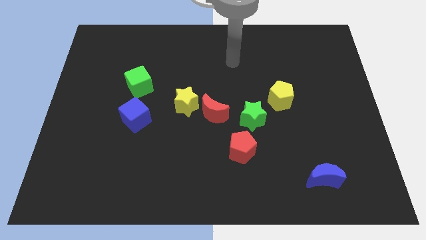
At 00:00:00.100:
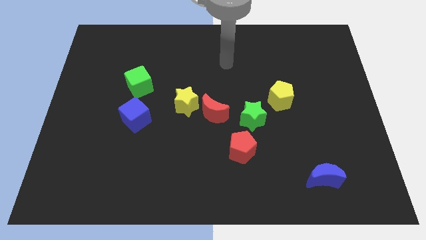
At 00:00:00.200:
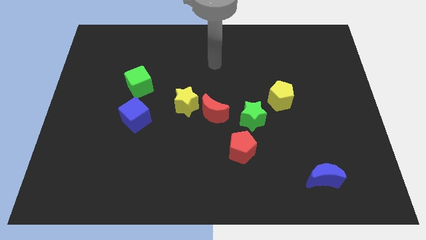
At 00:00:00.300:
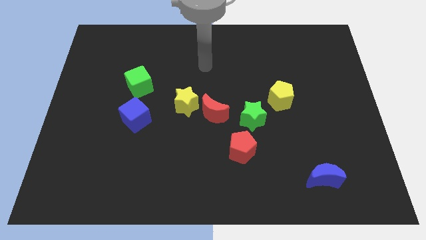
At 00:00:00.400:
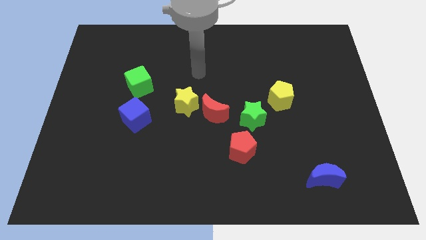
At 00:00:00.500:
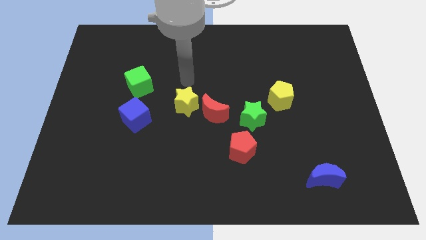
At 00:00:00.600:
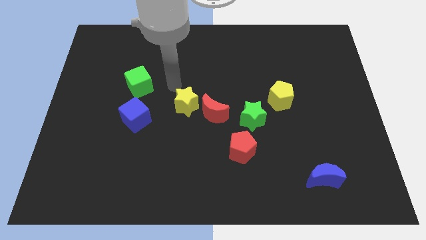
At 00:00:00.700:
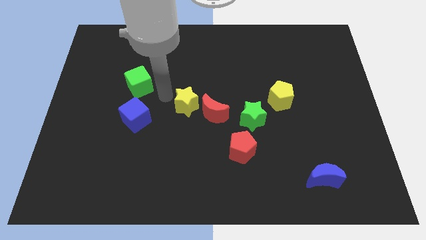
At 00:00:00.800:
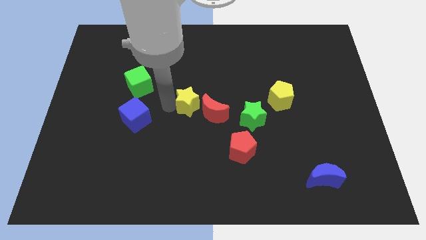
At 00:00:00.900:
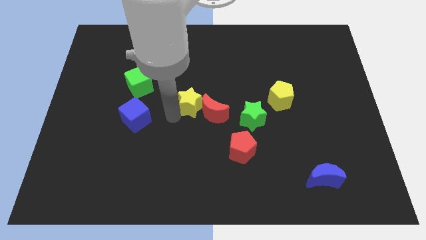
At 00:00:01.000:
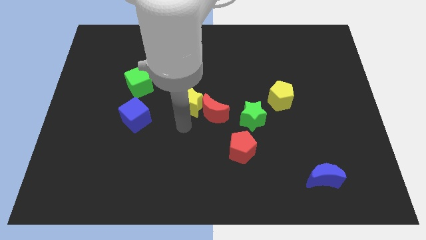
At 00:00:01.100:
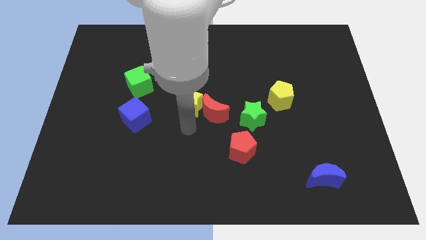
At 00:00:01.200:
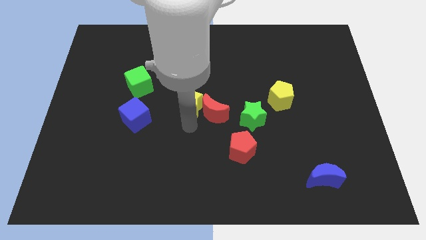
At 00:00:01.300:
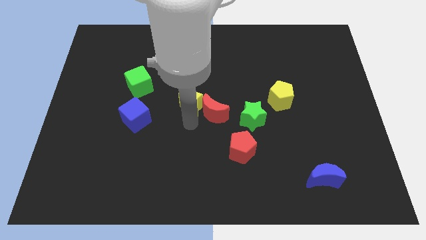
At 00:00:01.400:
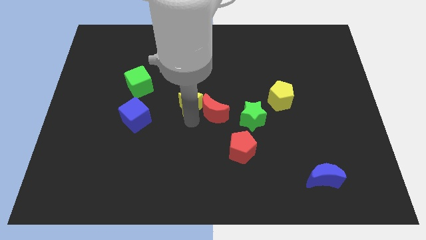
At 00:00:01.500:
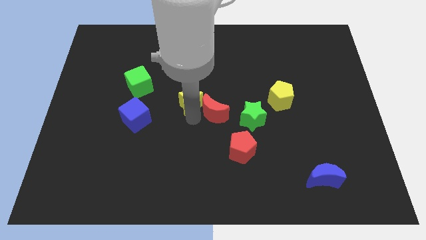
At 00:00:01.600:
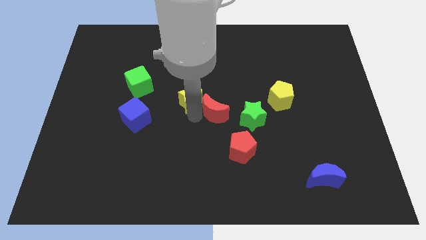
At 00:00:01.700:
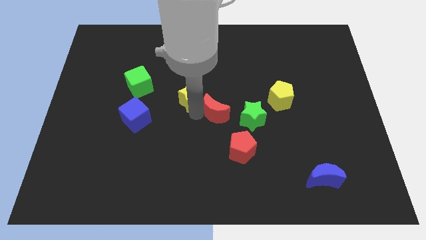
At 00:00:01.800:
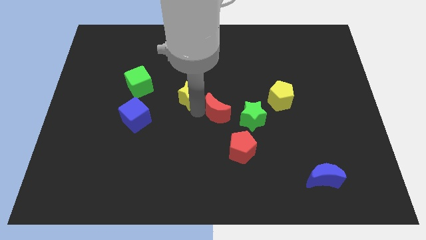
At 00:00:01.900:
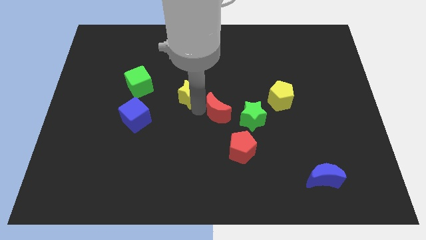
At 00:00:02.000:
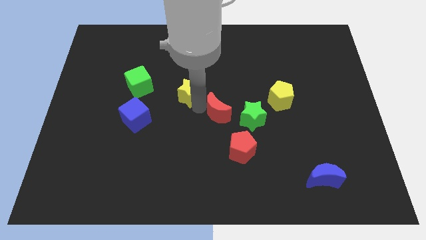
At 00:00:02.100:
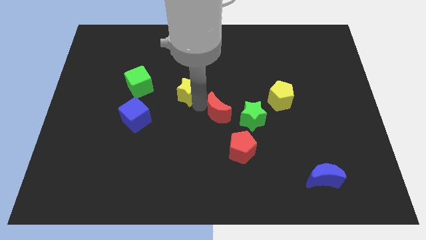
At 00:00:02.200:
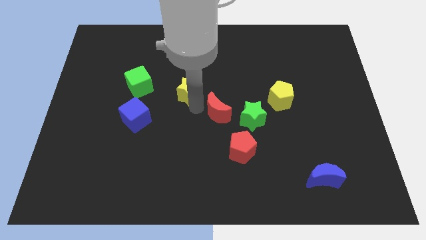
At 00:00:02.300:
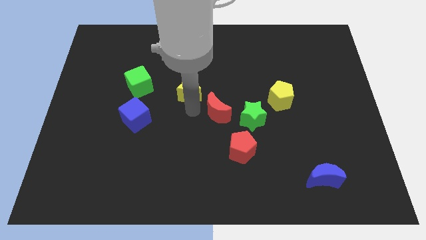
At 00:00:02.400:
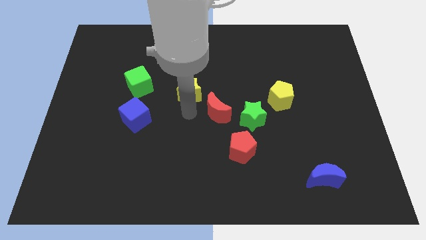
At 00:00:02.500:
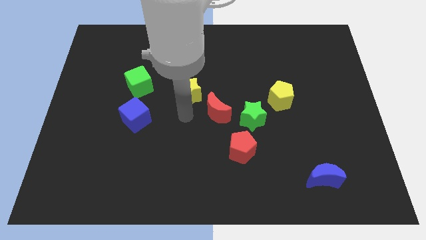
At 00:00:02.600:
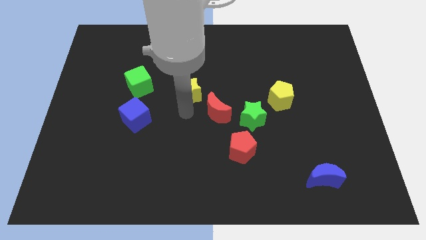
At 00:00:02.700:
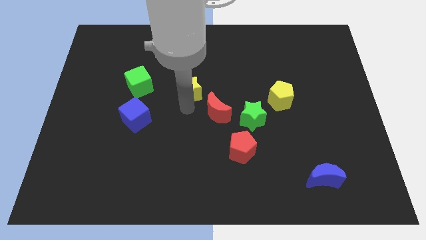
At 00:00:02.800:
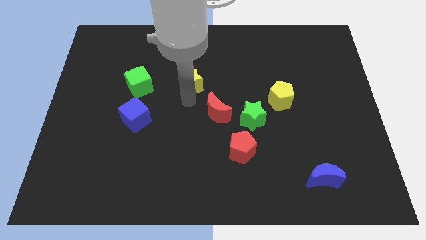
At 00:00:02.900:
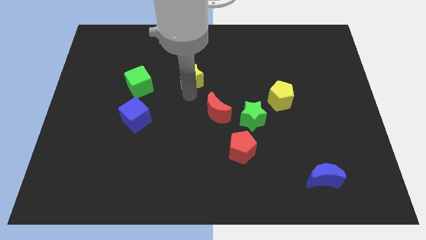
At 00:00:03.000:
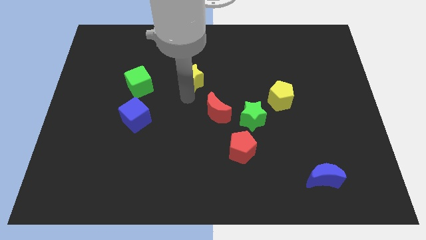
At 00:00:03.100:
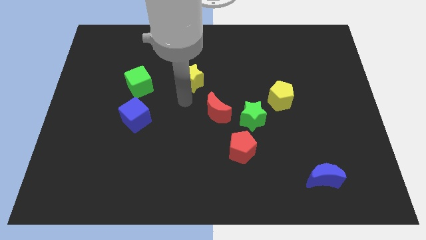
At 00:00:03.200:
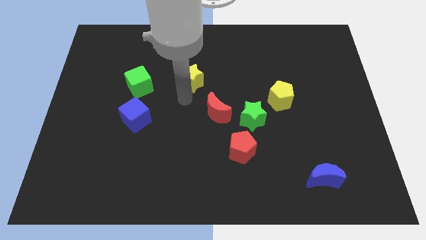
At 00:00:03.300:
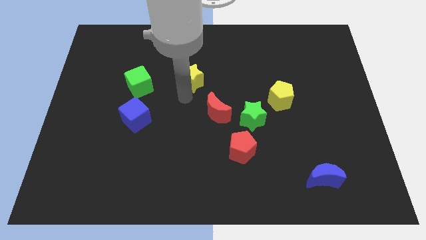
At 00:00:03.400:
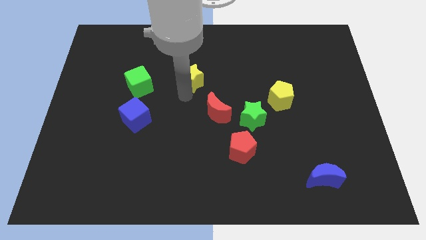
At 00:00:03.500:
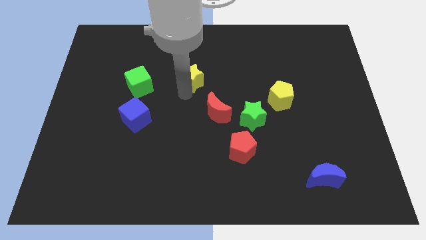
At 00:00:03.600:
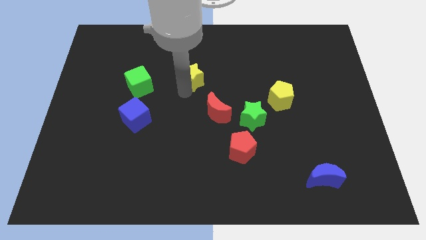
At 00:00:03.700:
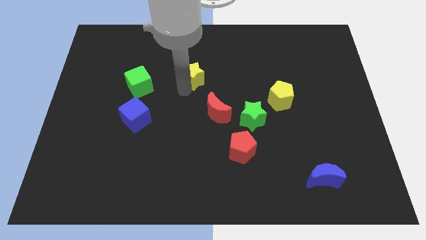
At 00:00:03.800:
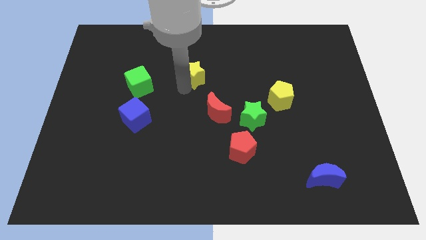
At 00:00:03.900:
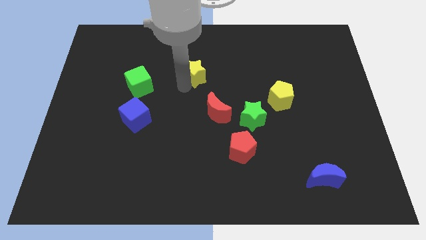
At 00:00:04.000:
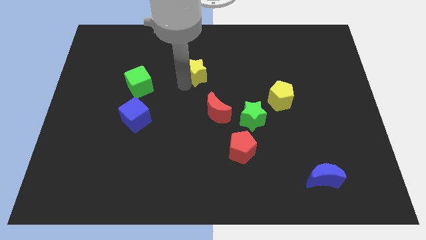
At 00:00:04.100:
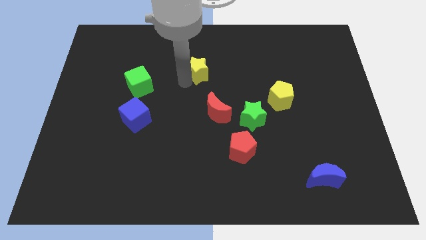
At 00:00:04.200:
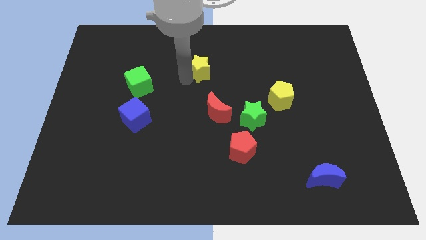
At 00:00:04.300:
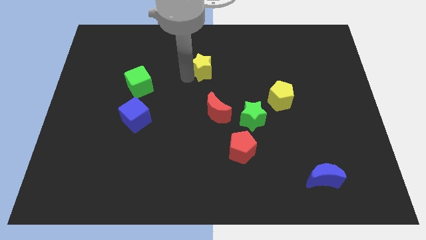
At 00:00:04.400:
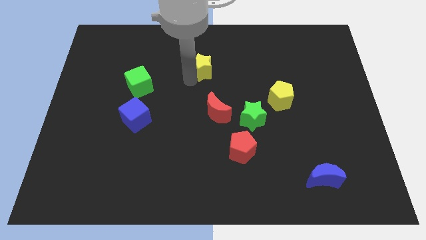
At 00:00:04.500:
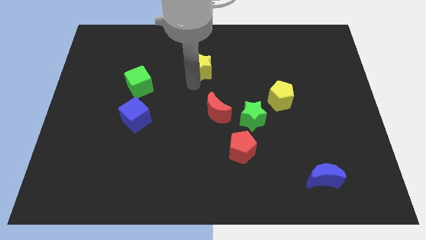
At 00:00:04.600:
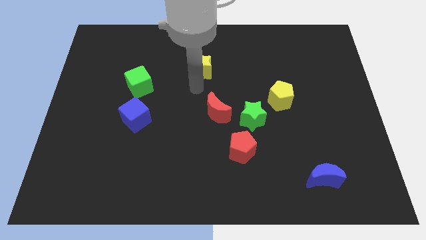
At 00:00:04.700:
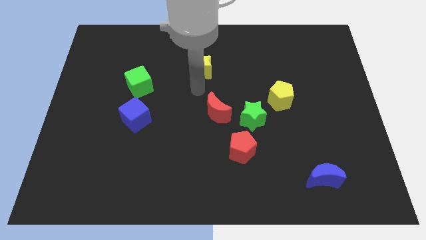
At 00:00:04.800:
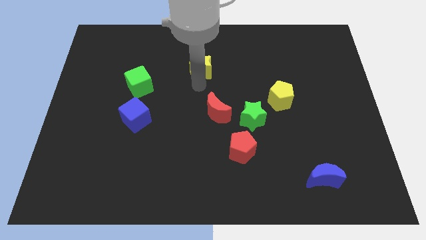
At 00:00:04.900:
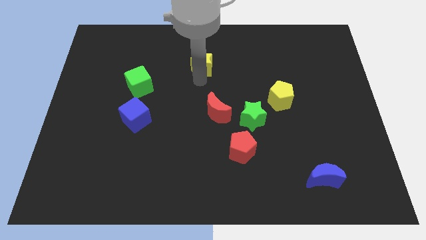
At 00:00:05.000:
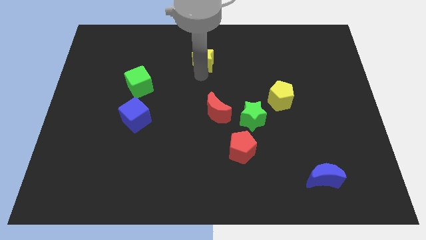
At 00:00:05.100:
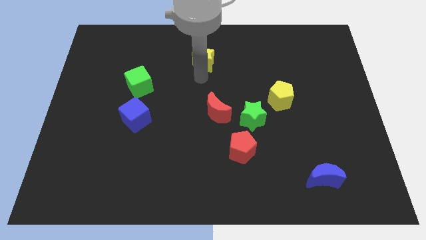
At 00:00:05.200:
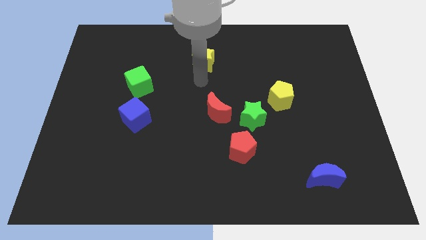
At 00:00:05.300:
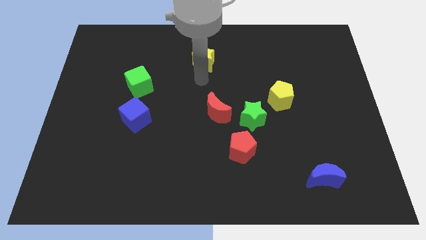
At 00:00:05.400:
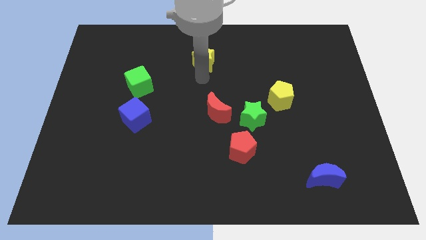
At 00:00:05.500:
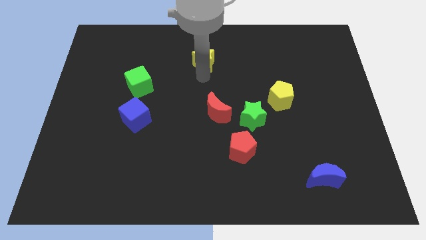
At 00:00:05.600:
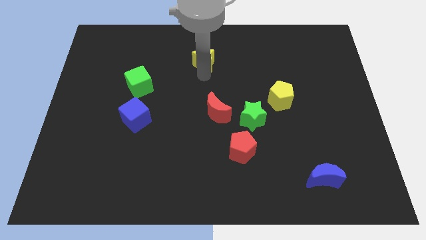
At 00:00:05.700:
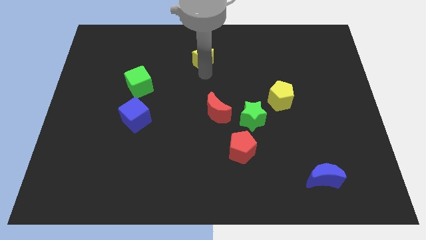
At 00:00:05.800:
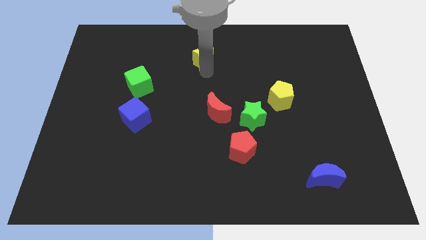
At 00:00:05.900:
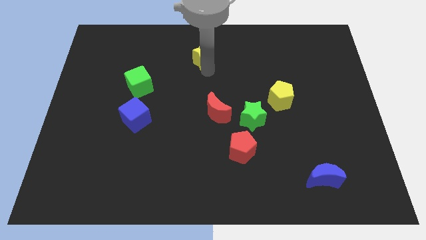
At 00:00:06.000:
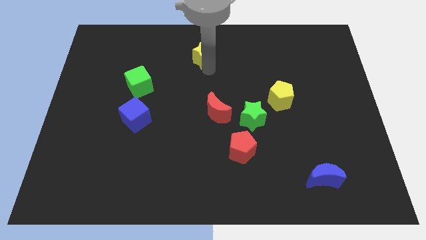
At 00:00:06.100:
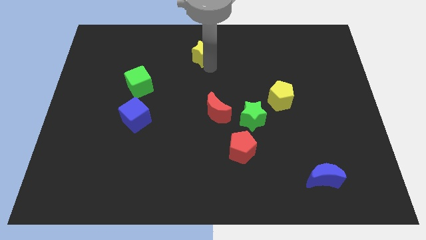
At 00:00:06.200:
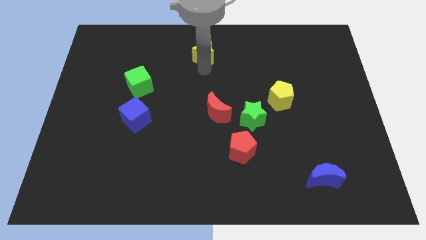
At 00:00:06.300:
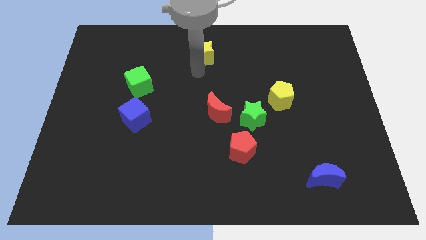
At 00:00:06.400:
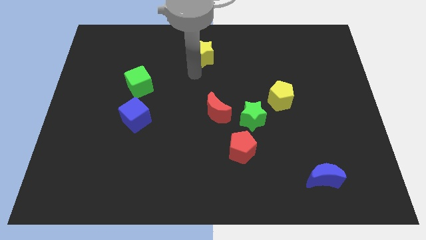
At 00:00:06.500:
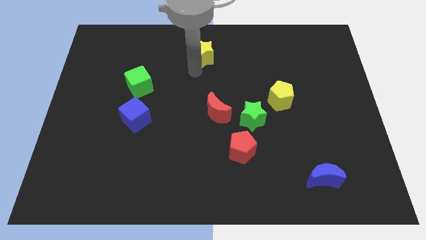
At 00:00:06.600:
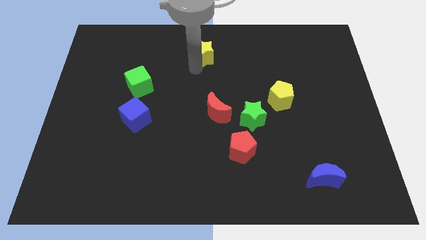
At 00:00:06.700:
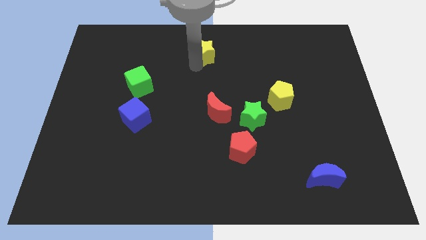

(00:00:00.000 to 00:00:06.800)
move the yellow star to the top side

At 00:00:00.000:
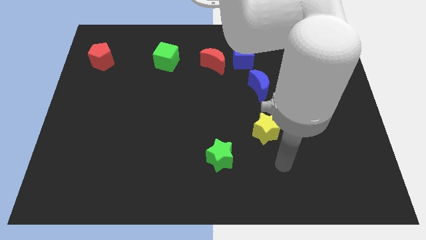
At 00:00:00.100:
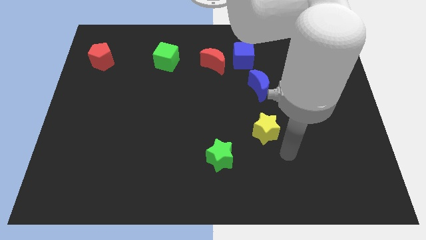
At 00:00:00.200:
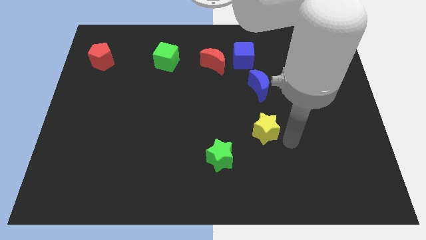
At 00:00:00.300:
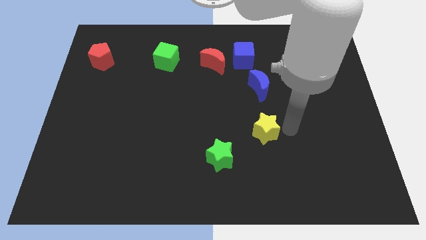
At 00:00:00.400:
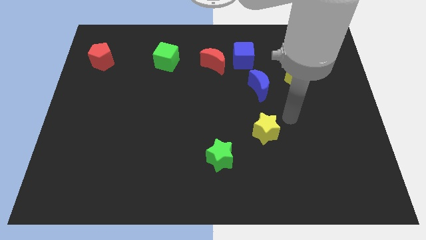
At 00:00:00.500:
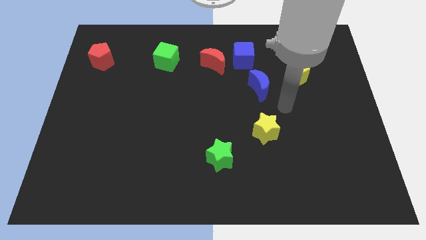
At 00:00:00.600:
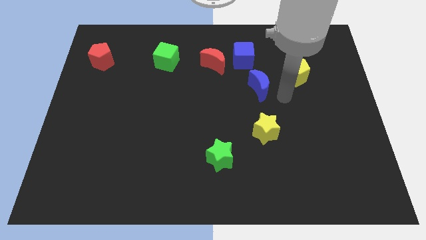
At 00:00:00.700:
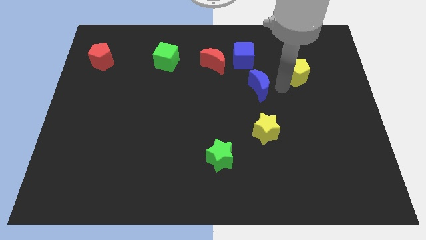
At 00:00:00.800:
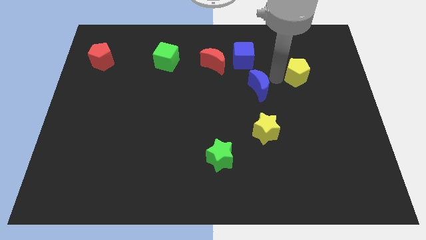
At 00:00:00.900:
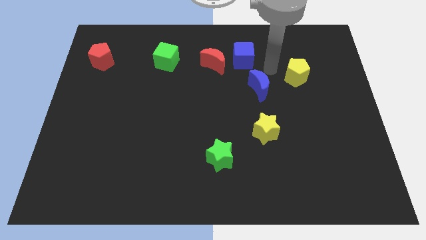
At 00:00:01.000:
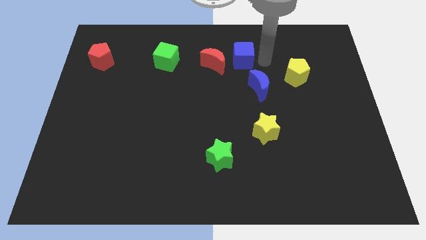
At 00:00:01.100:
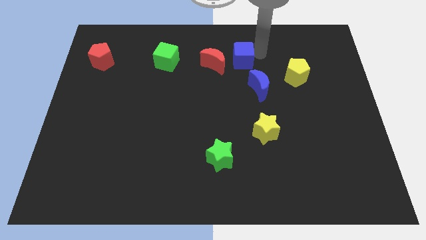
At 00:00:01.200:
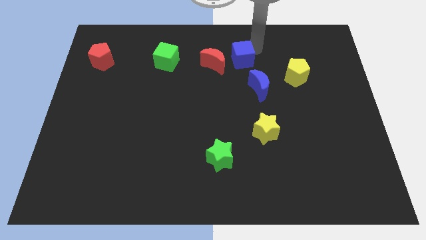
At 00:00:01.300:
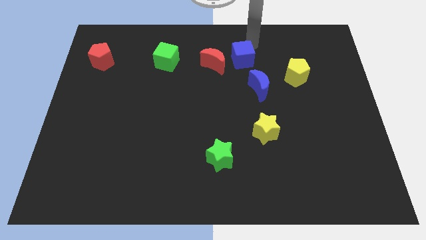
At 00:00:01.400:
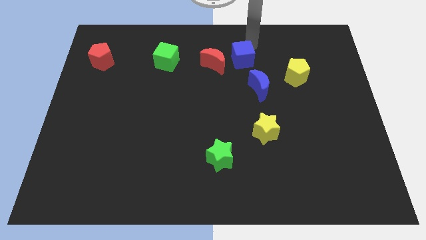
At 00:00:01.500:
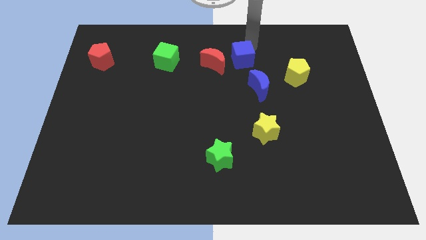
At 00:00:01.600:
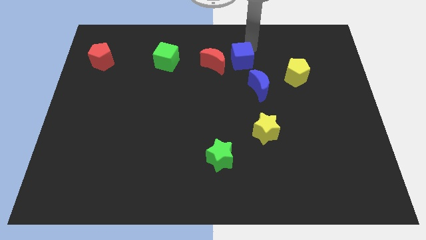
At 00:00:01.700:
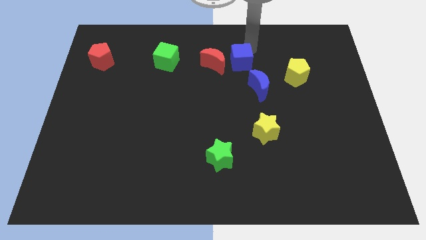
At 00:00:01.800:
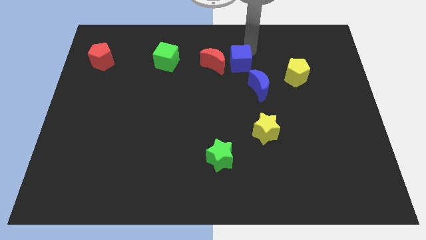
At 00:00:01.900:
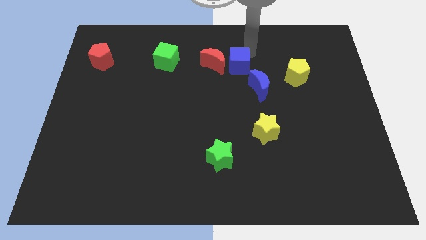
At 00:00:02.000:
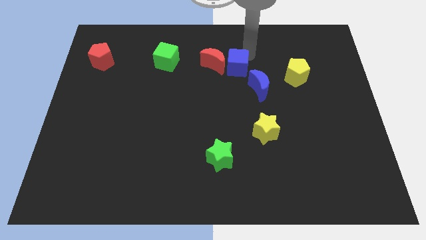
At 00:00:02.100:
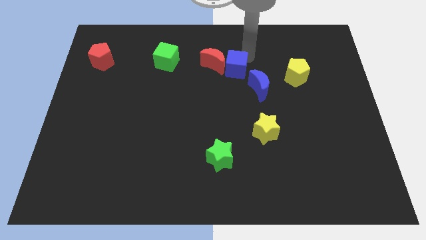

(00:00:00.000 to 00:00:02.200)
push the blue cube to the middle of the board
